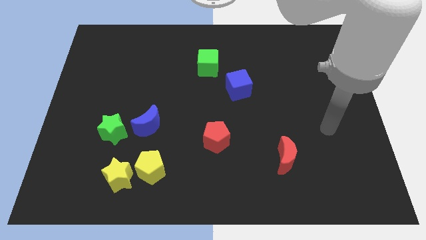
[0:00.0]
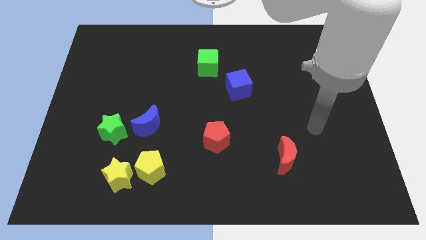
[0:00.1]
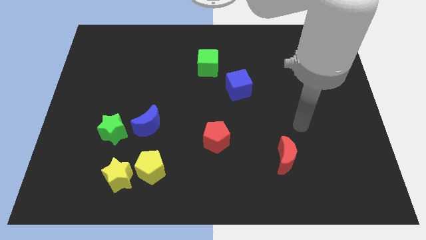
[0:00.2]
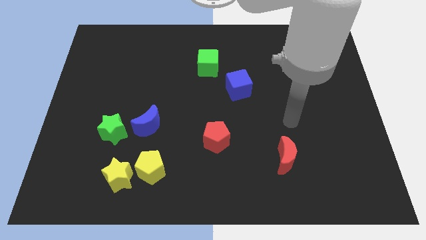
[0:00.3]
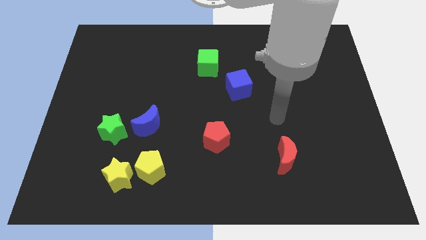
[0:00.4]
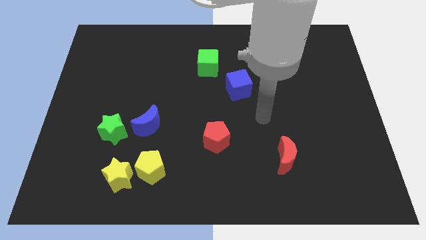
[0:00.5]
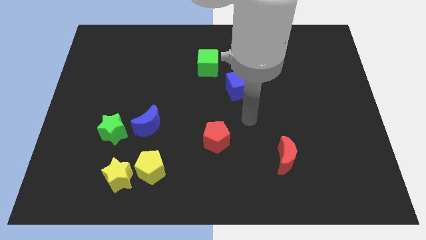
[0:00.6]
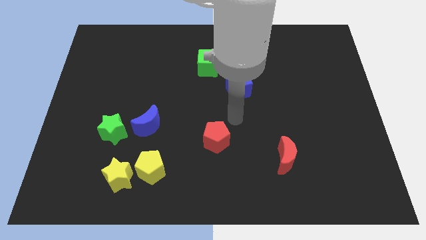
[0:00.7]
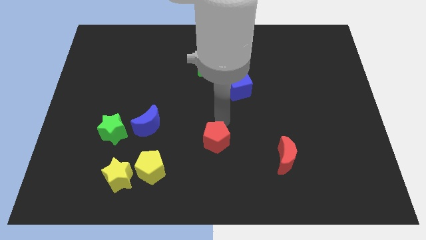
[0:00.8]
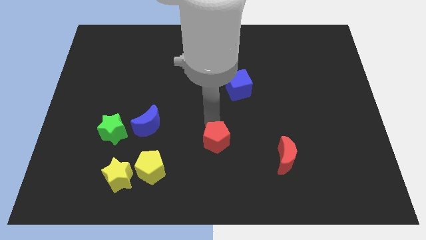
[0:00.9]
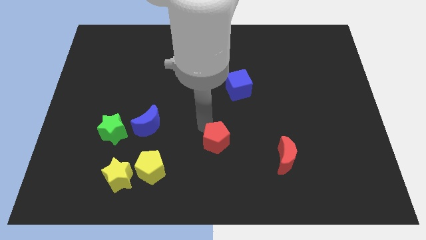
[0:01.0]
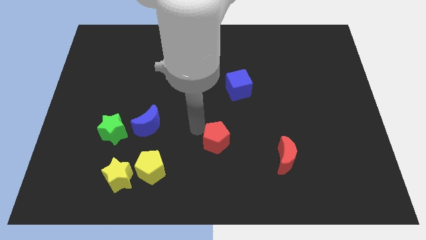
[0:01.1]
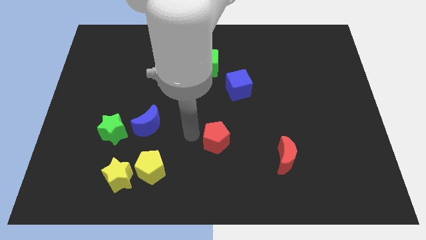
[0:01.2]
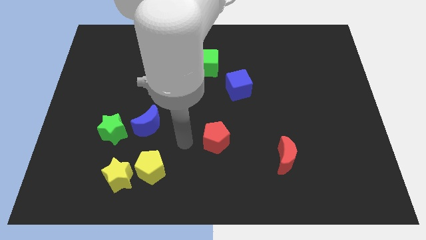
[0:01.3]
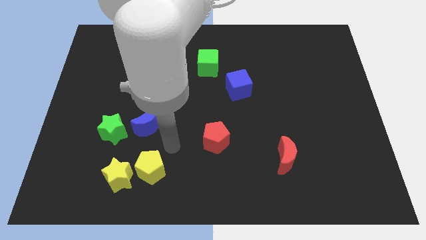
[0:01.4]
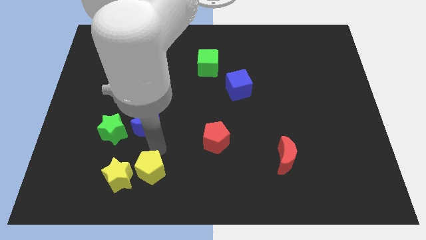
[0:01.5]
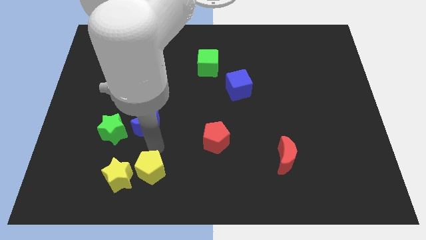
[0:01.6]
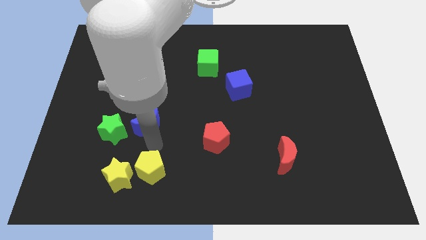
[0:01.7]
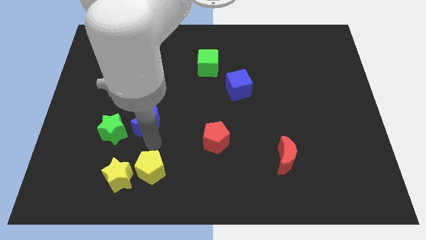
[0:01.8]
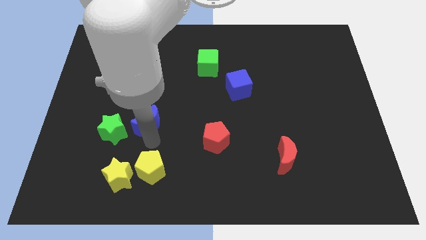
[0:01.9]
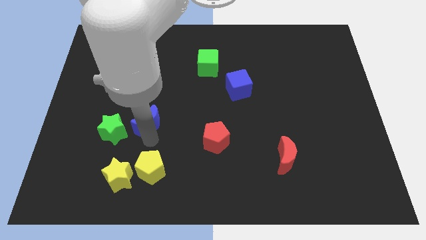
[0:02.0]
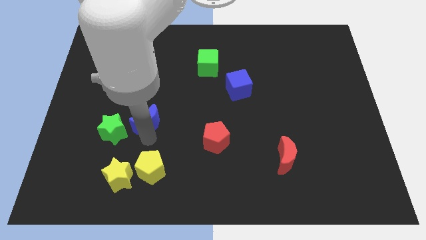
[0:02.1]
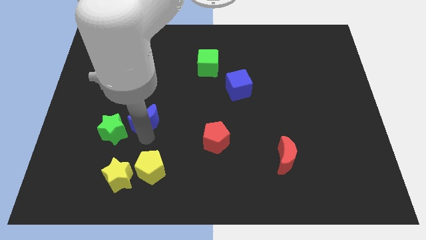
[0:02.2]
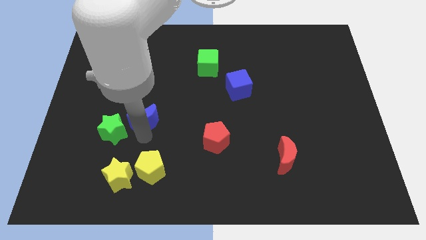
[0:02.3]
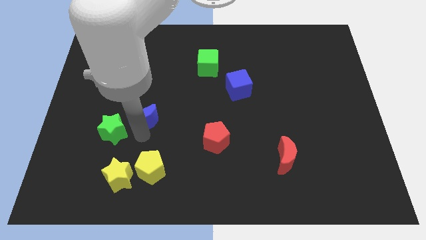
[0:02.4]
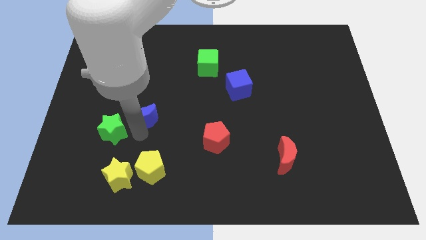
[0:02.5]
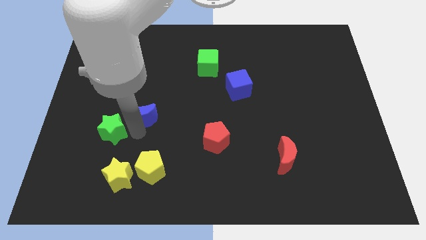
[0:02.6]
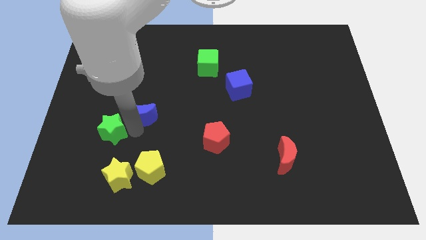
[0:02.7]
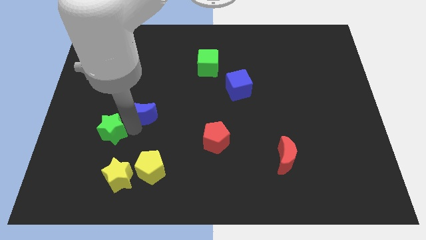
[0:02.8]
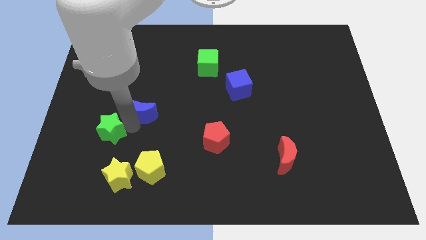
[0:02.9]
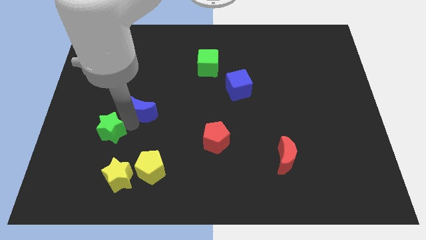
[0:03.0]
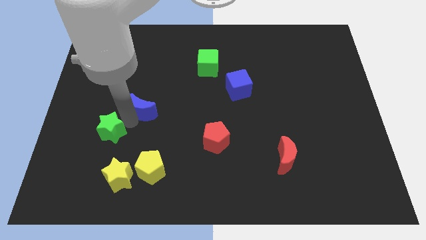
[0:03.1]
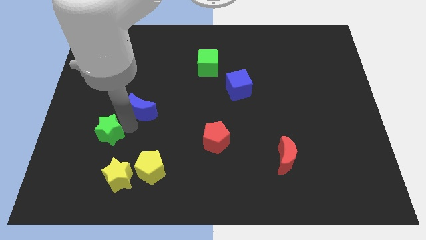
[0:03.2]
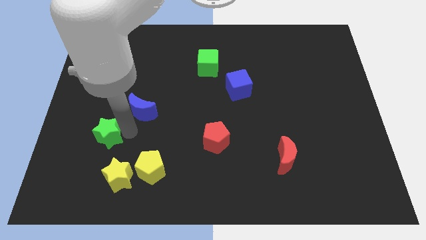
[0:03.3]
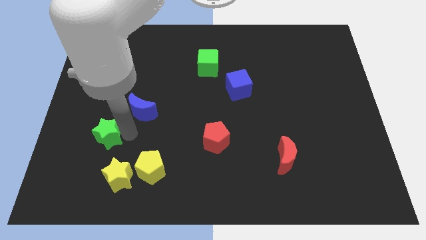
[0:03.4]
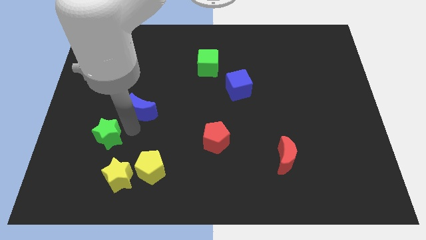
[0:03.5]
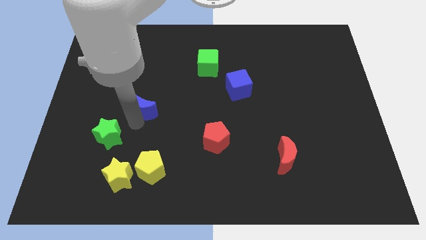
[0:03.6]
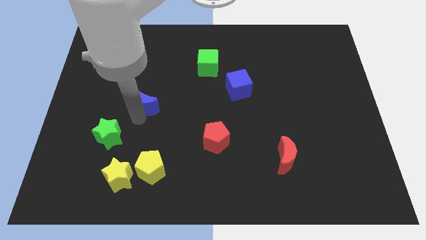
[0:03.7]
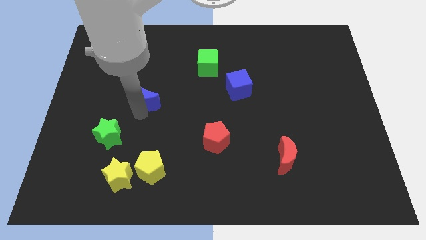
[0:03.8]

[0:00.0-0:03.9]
push the blue moon up slightly

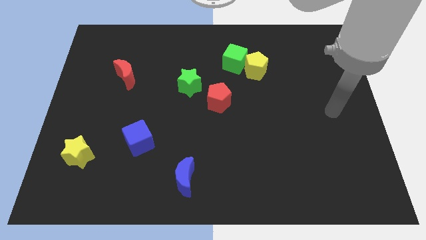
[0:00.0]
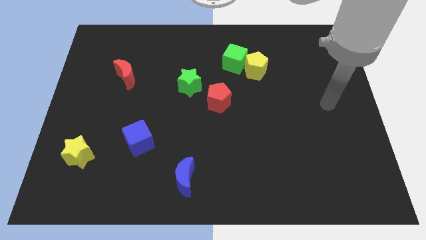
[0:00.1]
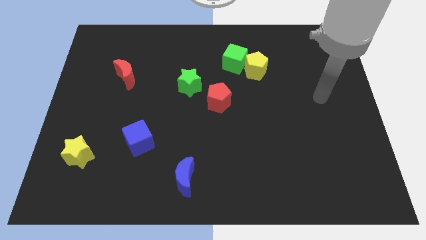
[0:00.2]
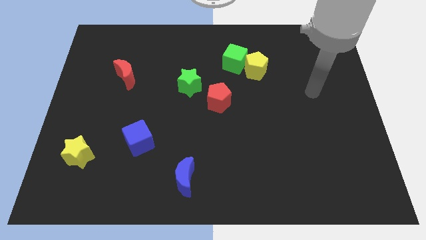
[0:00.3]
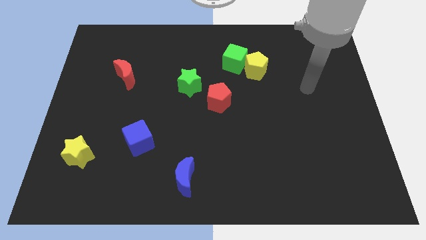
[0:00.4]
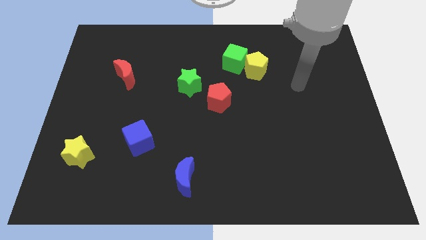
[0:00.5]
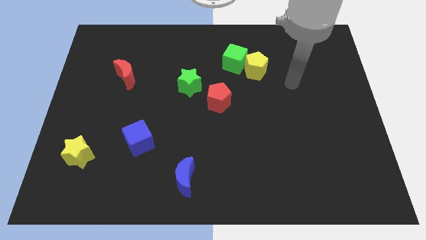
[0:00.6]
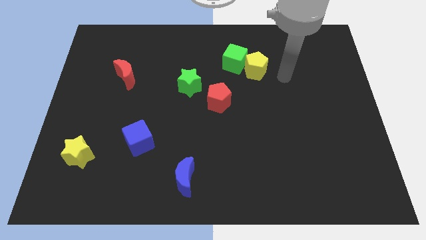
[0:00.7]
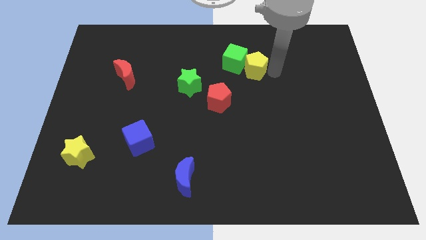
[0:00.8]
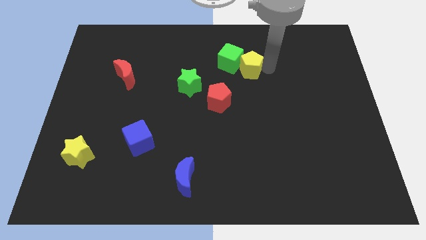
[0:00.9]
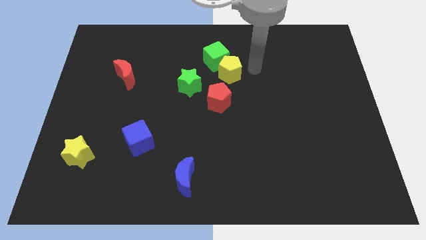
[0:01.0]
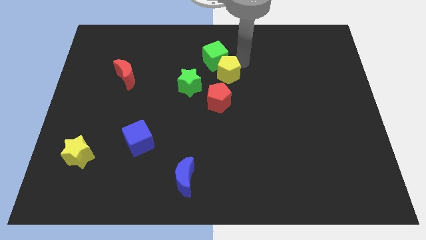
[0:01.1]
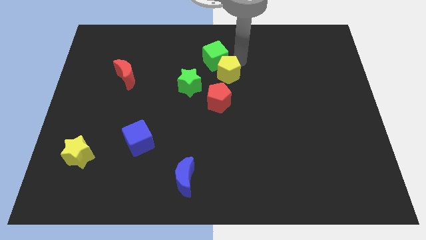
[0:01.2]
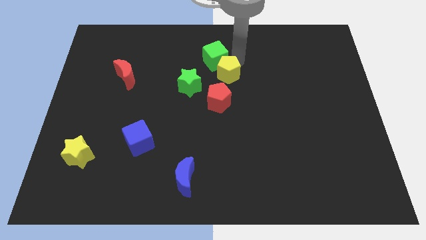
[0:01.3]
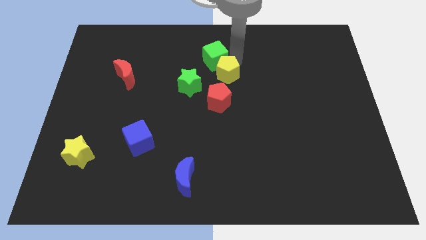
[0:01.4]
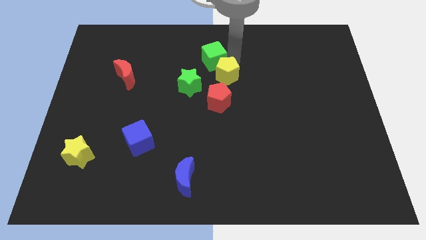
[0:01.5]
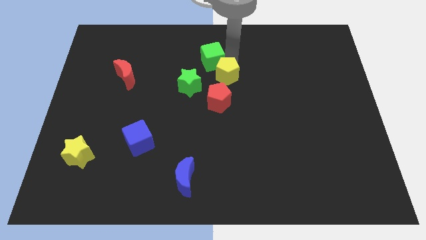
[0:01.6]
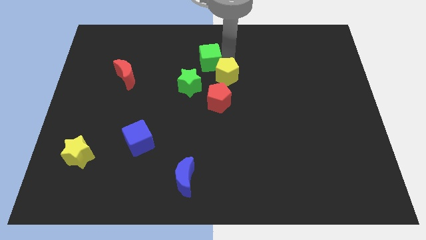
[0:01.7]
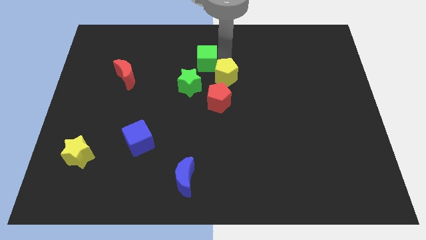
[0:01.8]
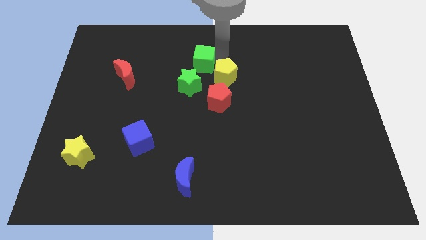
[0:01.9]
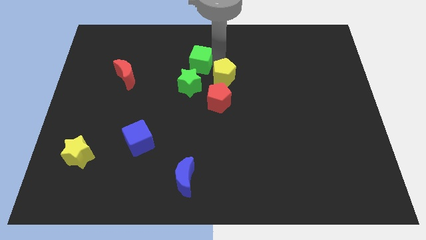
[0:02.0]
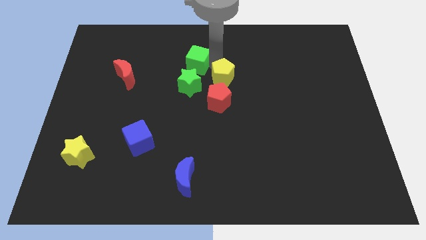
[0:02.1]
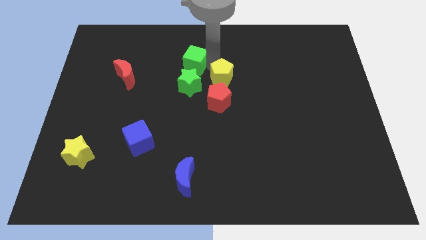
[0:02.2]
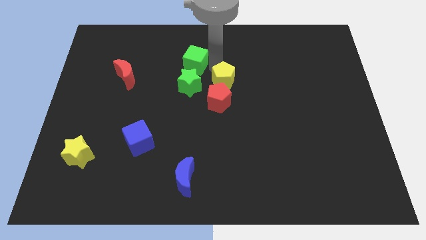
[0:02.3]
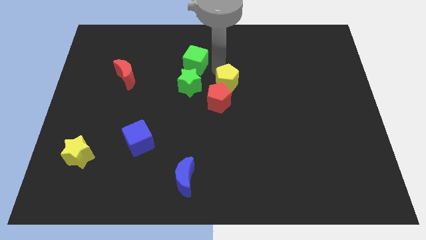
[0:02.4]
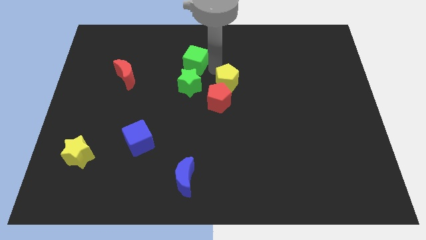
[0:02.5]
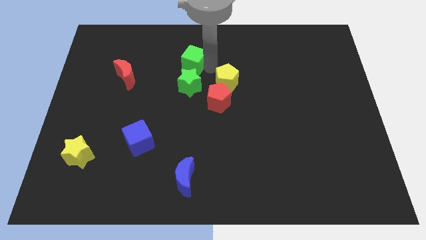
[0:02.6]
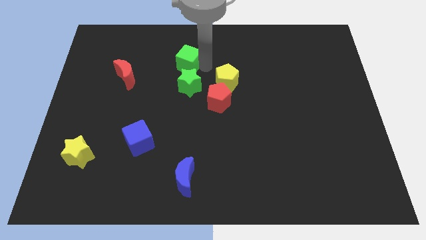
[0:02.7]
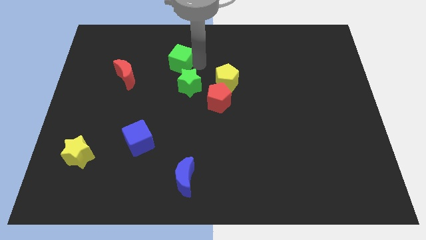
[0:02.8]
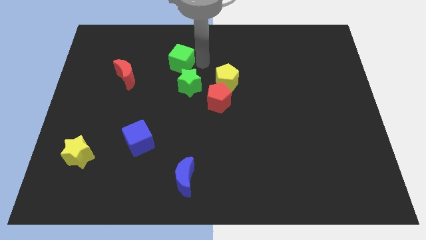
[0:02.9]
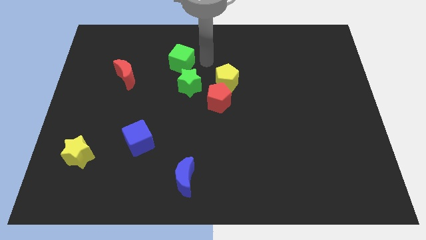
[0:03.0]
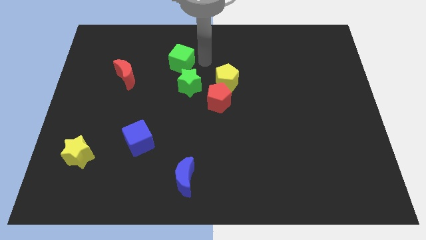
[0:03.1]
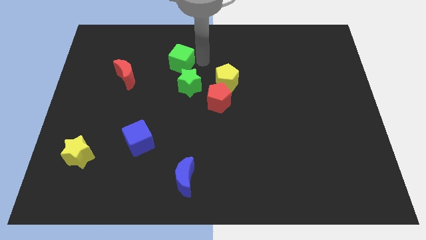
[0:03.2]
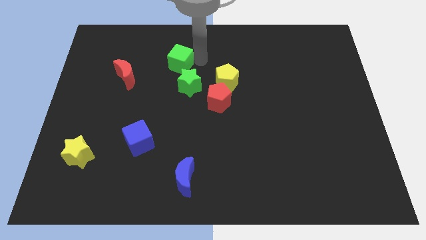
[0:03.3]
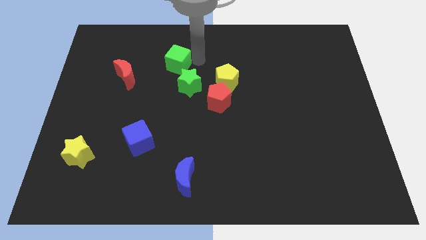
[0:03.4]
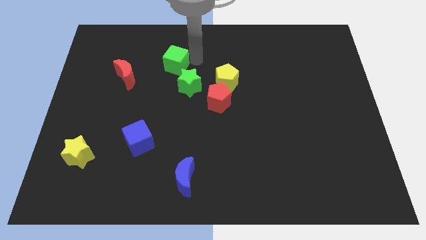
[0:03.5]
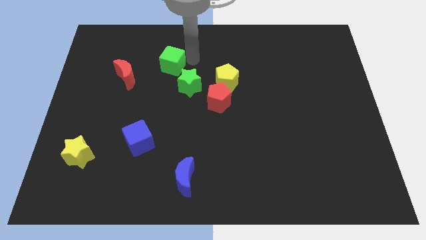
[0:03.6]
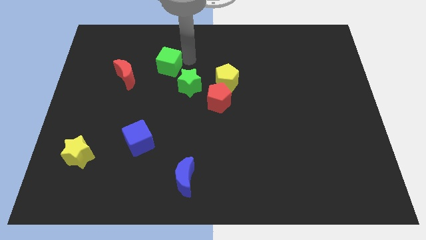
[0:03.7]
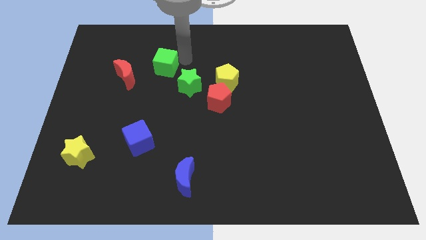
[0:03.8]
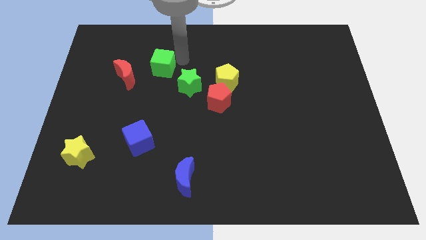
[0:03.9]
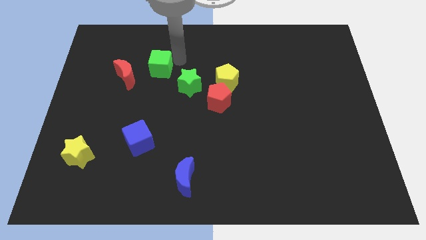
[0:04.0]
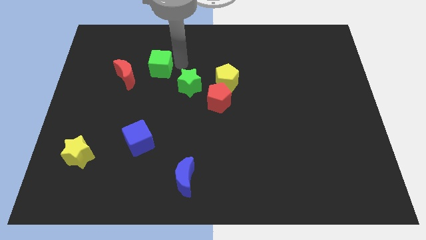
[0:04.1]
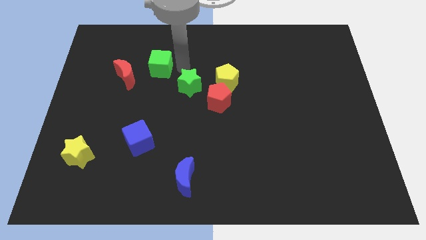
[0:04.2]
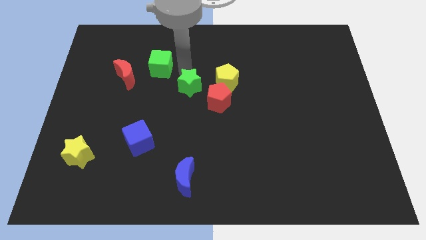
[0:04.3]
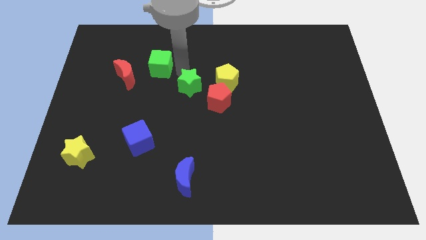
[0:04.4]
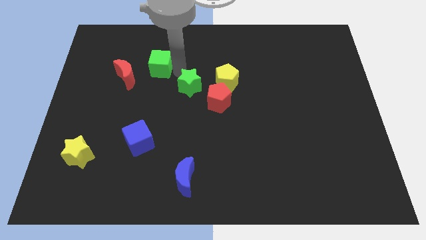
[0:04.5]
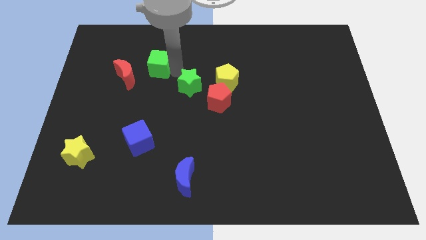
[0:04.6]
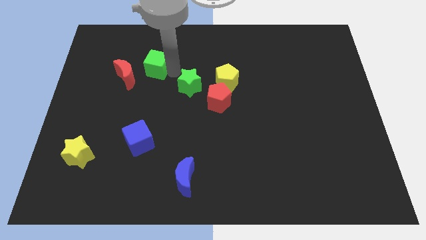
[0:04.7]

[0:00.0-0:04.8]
move the green cube left
